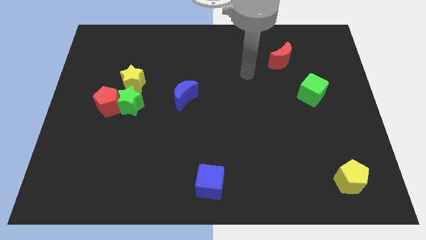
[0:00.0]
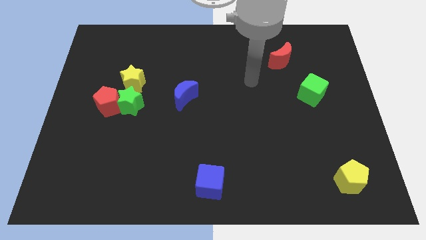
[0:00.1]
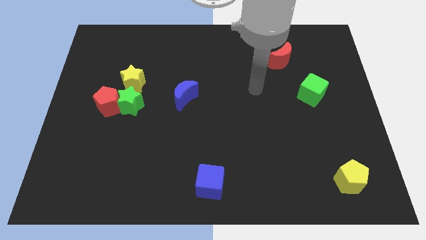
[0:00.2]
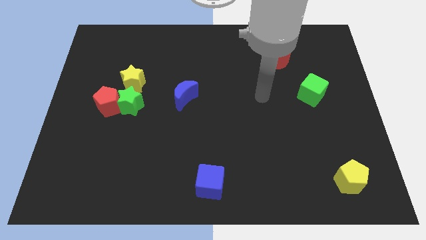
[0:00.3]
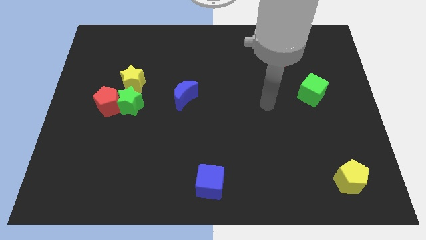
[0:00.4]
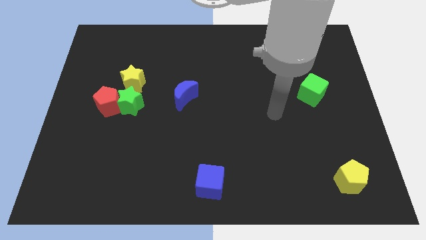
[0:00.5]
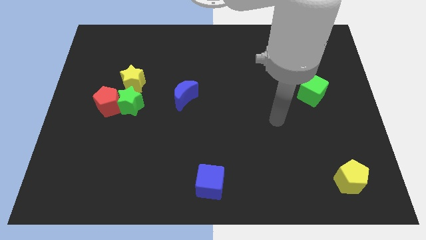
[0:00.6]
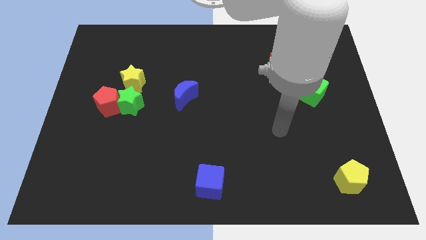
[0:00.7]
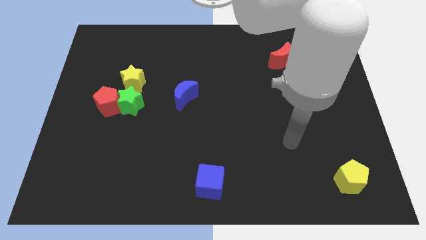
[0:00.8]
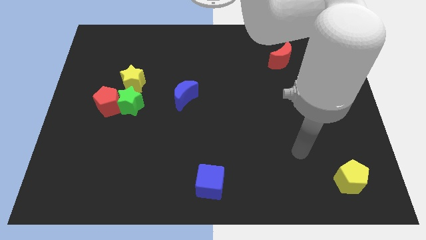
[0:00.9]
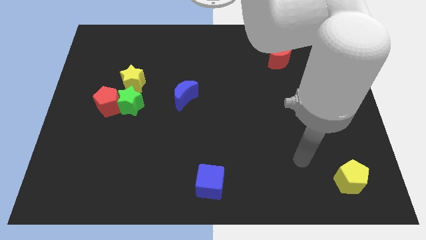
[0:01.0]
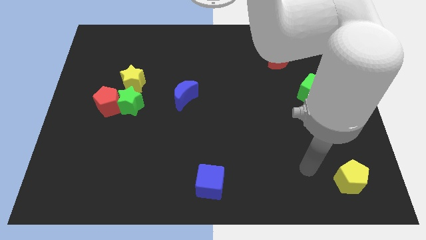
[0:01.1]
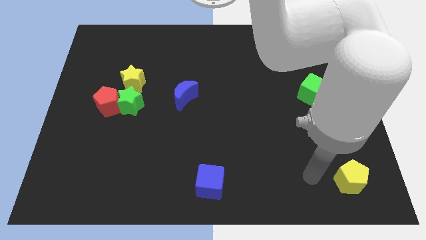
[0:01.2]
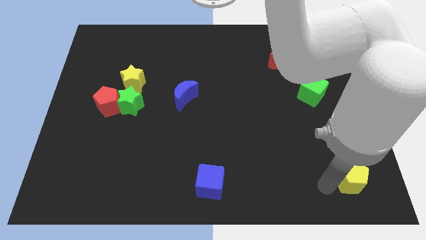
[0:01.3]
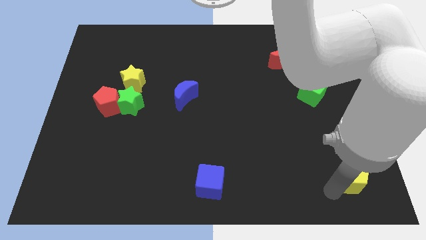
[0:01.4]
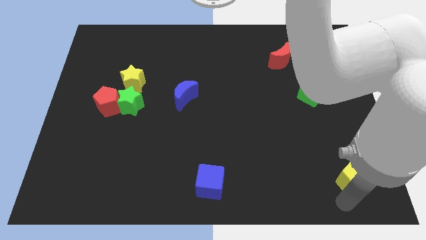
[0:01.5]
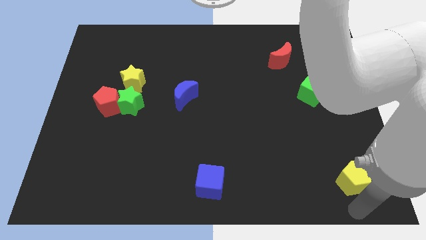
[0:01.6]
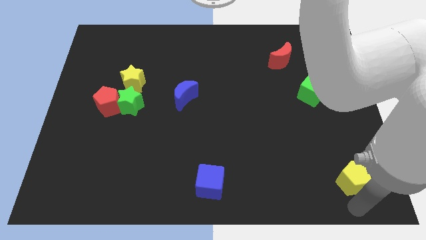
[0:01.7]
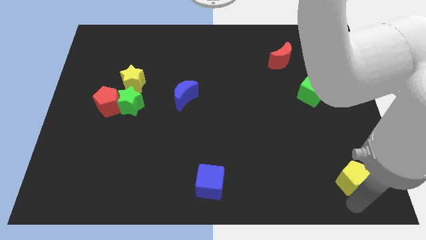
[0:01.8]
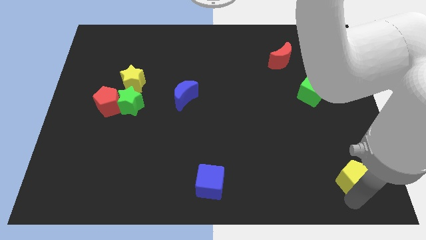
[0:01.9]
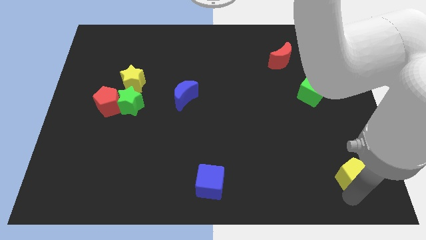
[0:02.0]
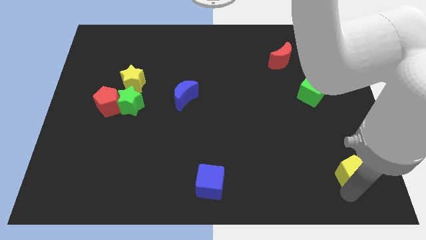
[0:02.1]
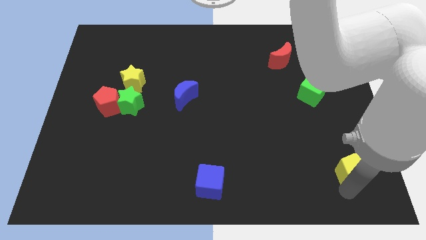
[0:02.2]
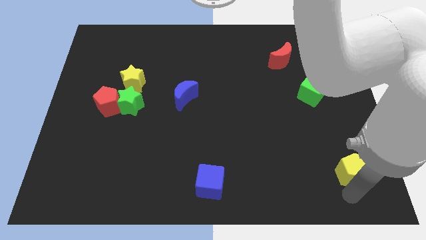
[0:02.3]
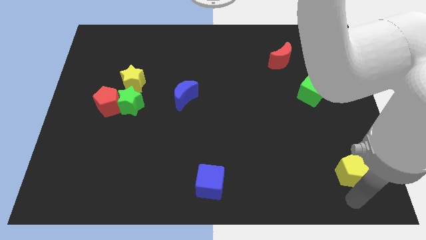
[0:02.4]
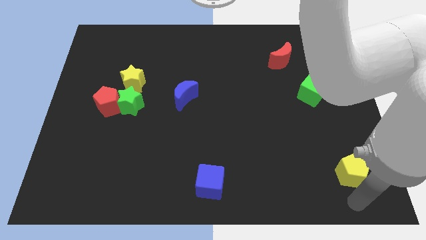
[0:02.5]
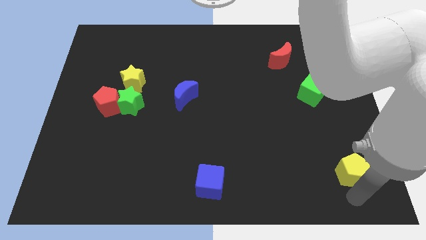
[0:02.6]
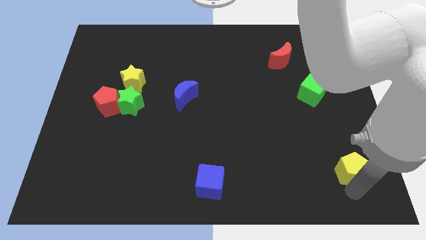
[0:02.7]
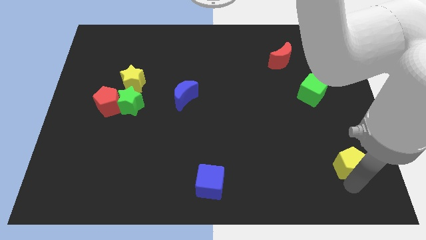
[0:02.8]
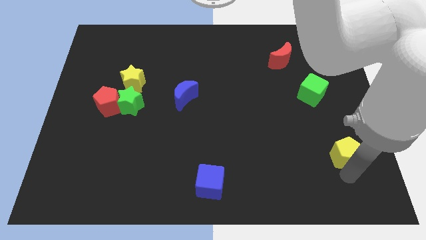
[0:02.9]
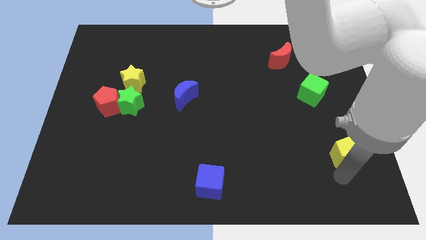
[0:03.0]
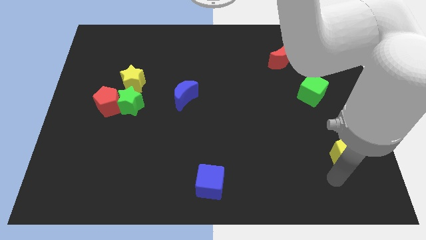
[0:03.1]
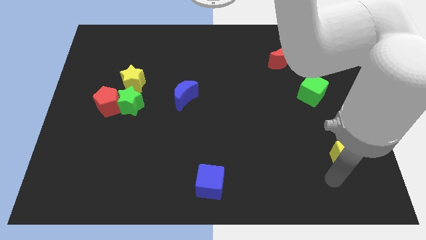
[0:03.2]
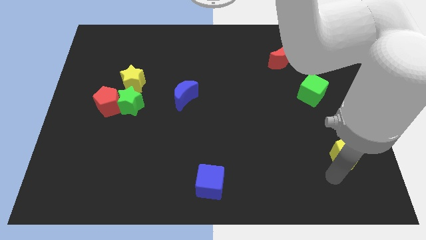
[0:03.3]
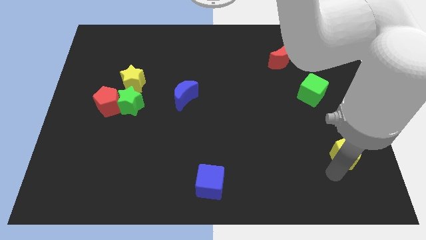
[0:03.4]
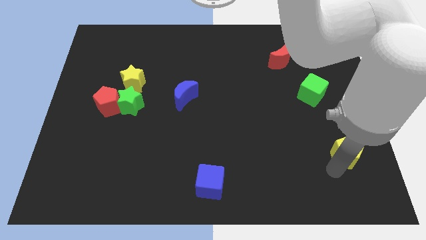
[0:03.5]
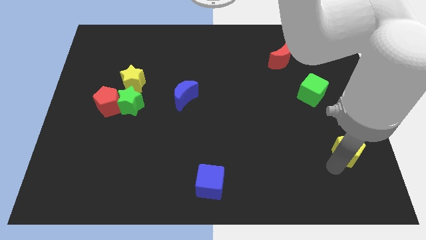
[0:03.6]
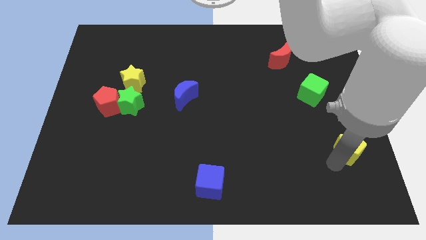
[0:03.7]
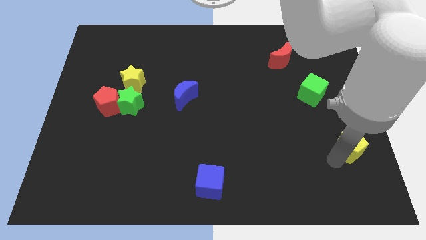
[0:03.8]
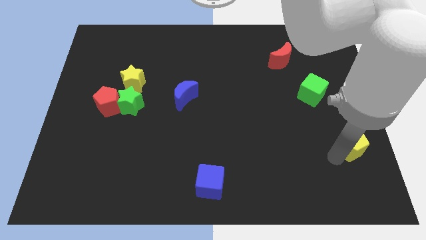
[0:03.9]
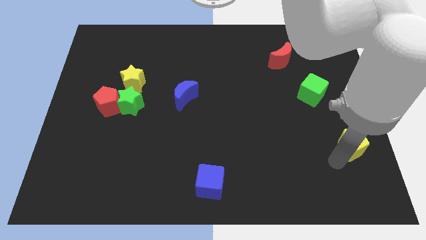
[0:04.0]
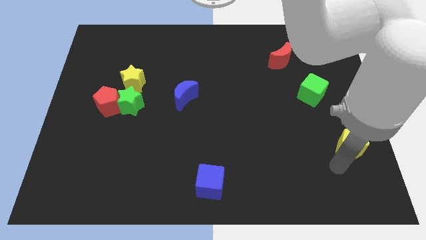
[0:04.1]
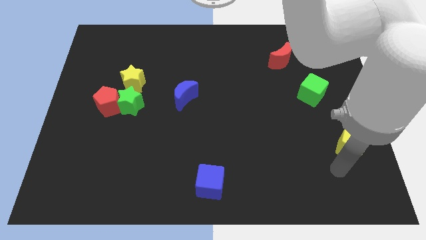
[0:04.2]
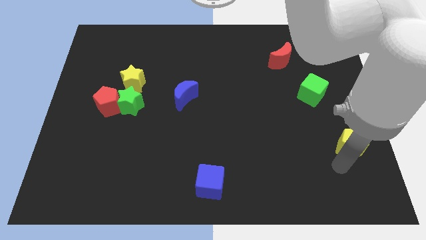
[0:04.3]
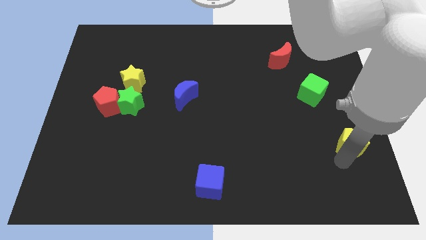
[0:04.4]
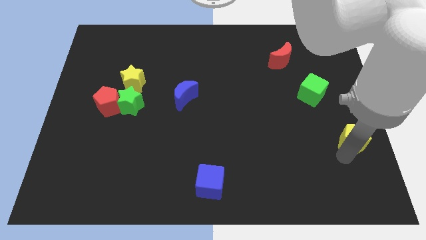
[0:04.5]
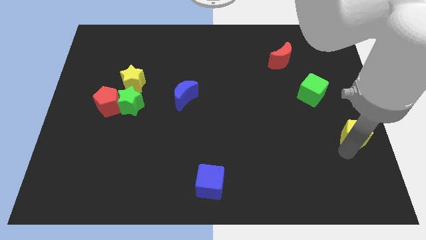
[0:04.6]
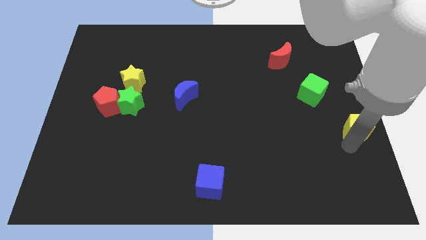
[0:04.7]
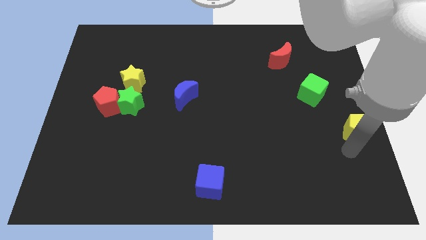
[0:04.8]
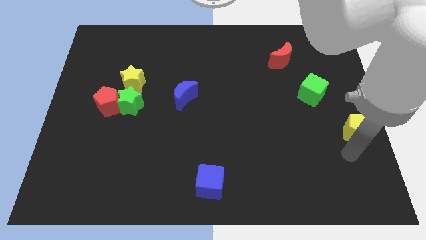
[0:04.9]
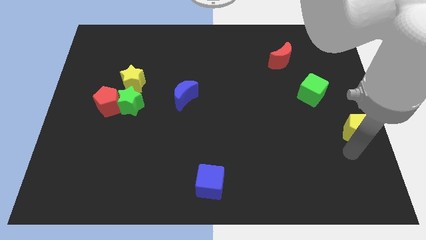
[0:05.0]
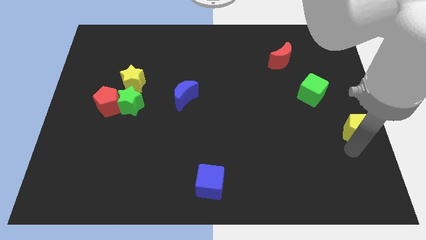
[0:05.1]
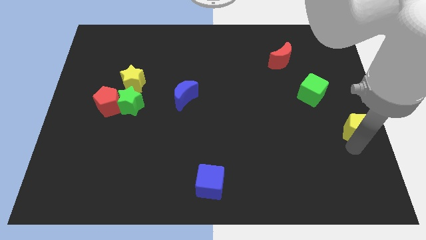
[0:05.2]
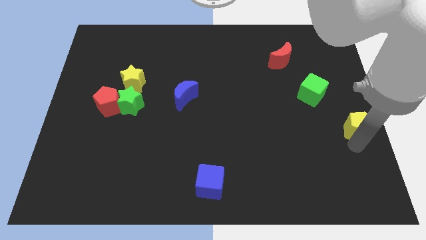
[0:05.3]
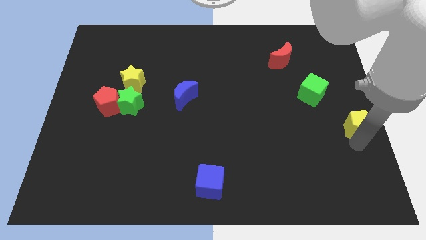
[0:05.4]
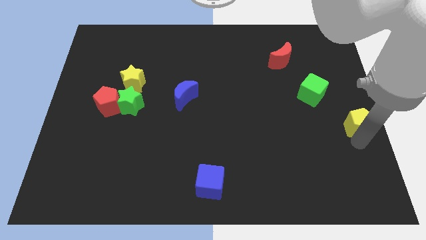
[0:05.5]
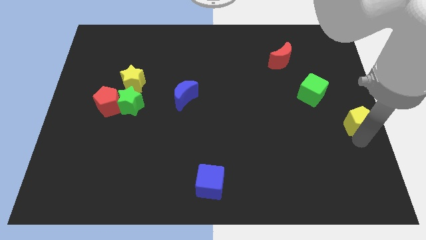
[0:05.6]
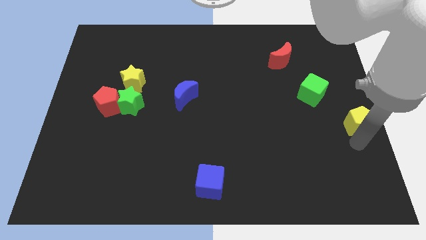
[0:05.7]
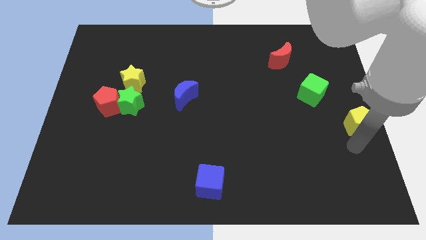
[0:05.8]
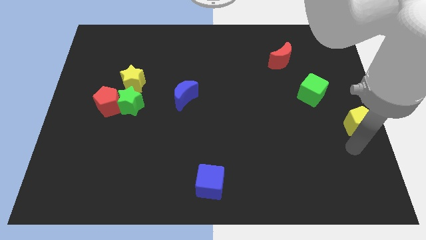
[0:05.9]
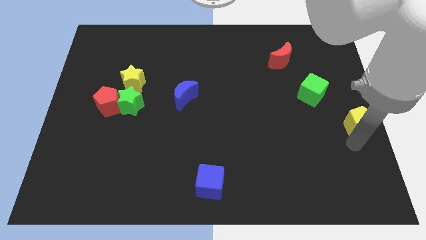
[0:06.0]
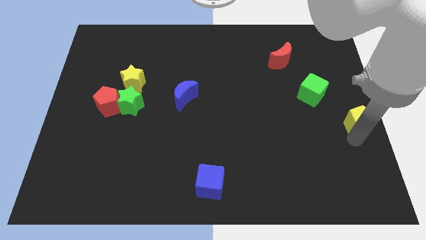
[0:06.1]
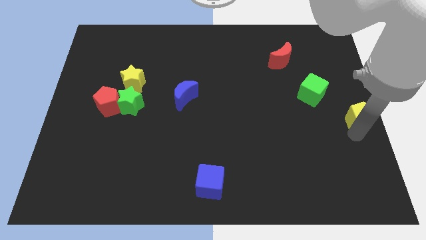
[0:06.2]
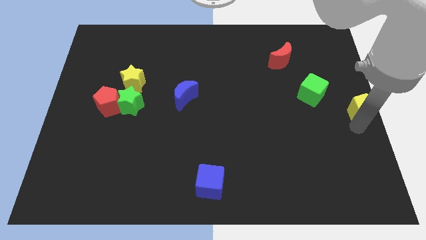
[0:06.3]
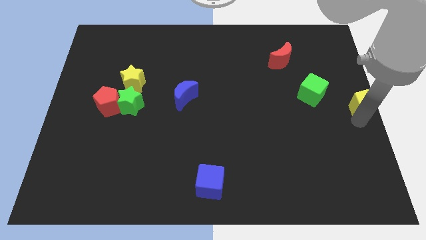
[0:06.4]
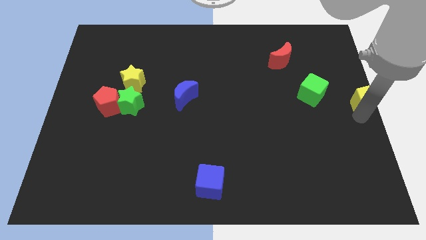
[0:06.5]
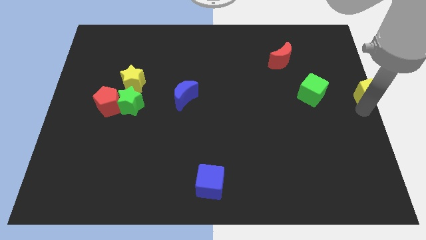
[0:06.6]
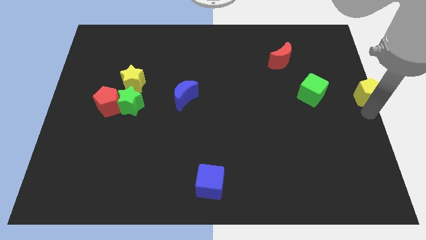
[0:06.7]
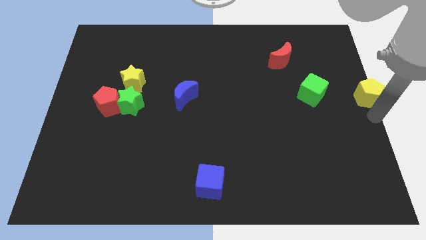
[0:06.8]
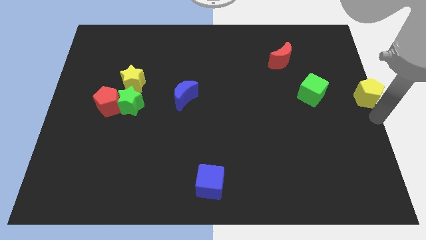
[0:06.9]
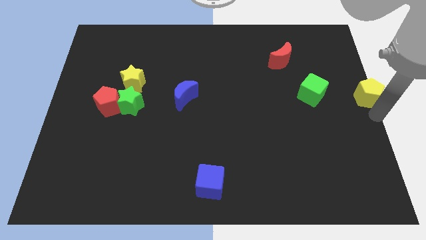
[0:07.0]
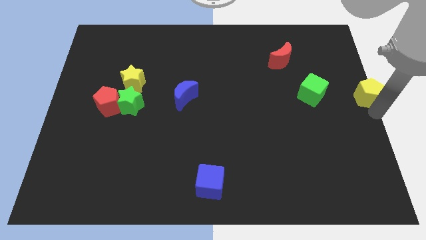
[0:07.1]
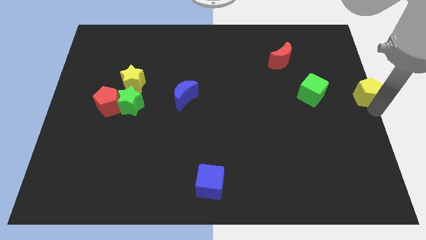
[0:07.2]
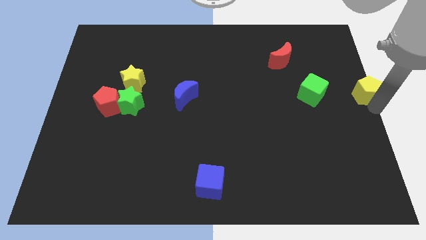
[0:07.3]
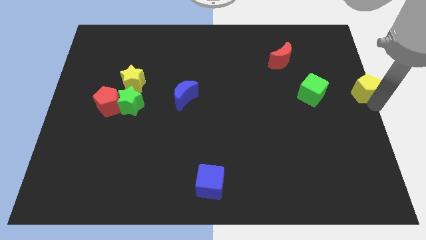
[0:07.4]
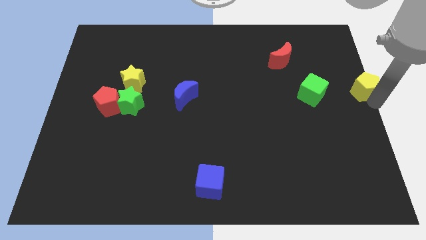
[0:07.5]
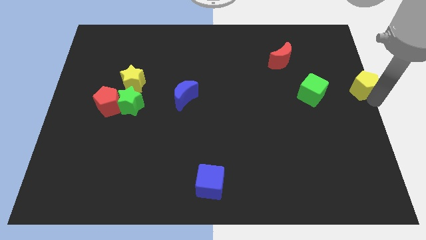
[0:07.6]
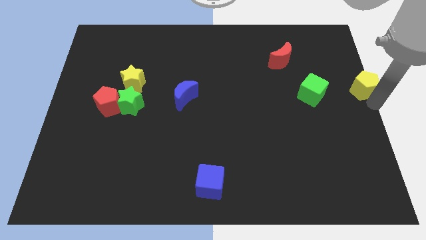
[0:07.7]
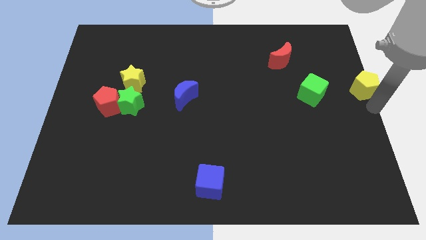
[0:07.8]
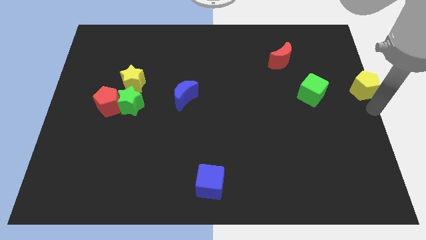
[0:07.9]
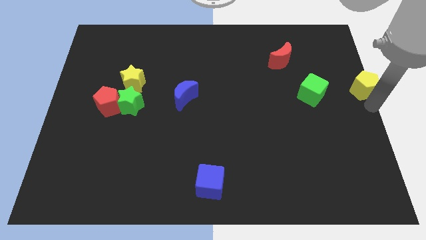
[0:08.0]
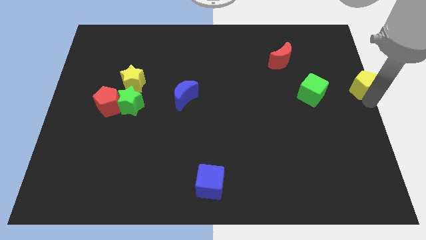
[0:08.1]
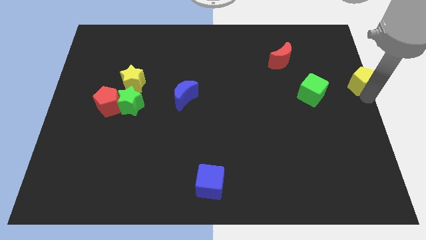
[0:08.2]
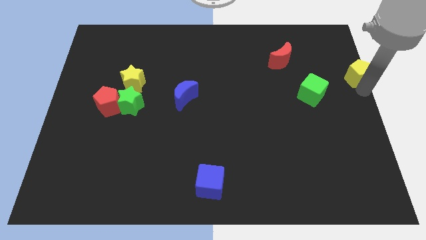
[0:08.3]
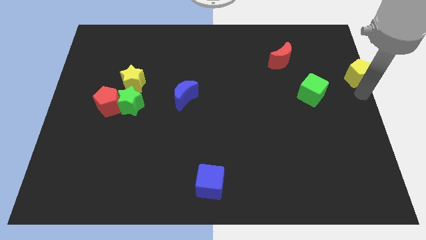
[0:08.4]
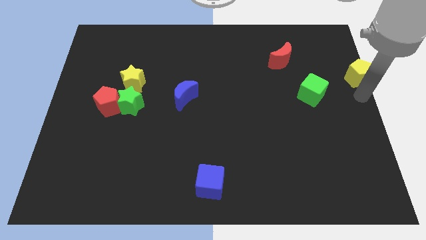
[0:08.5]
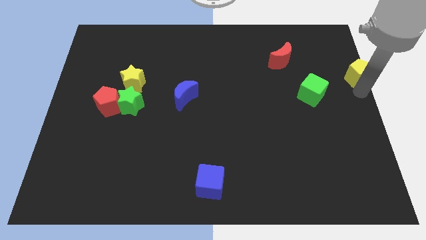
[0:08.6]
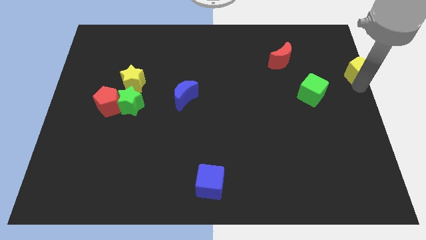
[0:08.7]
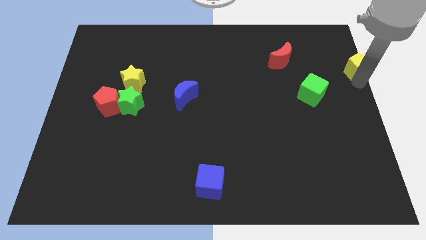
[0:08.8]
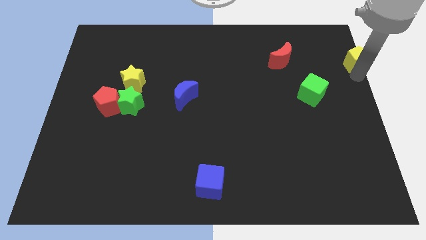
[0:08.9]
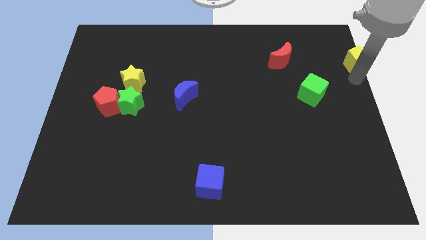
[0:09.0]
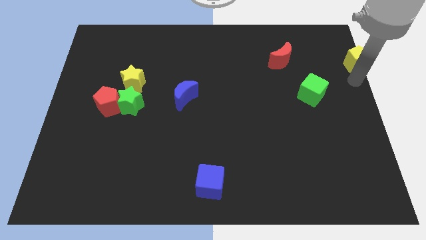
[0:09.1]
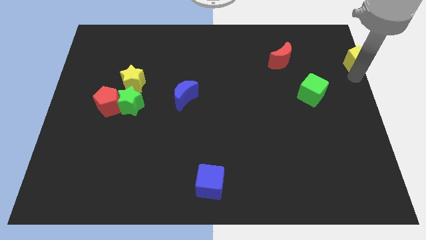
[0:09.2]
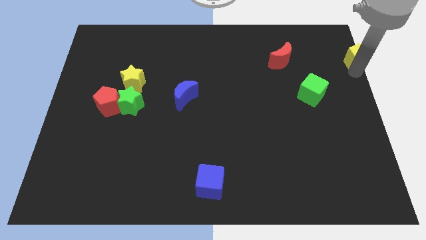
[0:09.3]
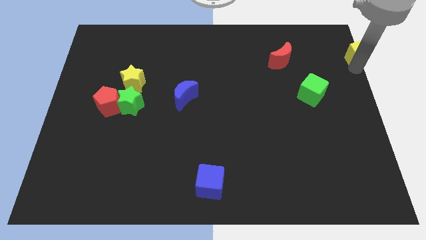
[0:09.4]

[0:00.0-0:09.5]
put the yellow pentagon to the top right corner
